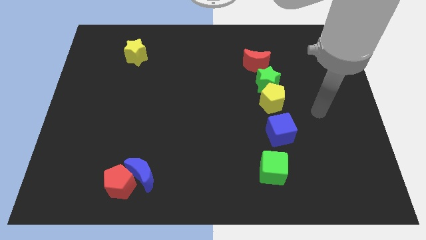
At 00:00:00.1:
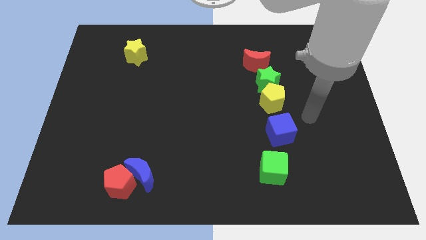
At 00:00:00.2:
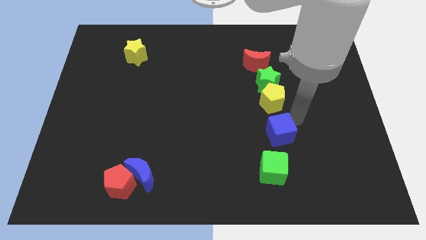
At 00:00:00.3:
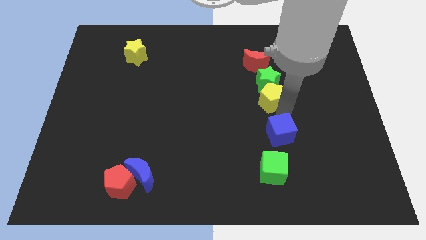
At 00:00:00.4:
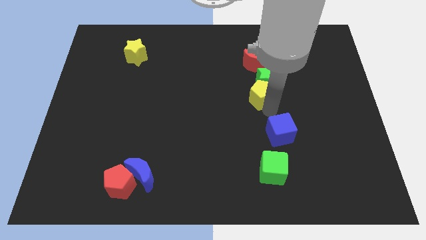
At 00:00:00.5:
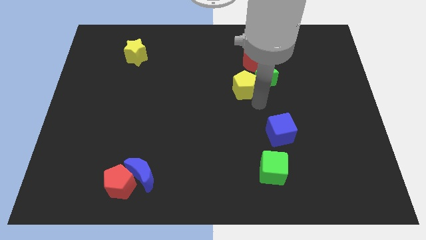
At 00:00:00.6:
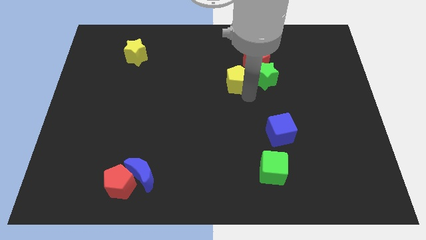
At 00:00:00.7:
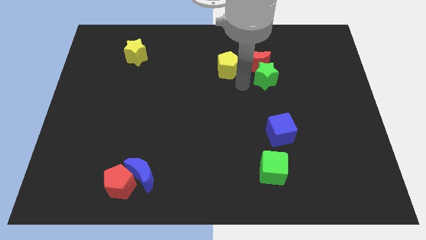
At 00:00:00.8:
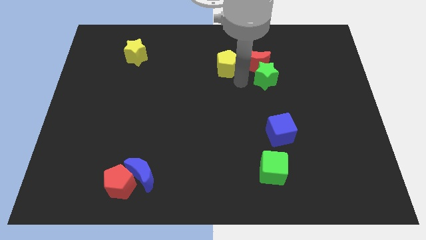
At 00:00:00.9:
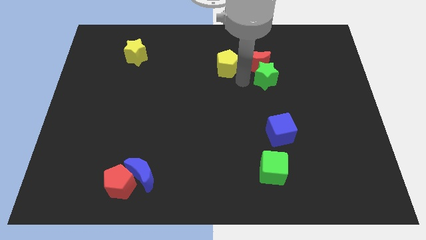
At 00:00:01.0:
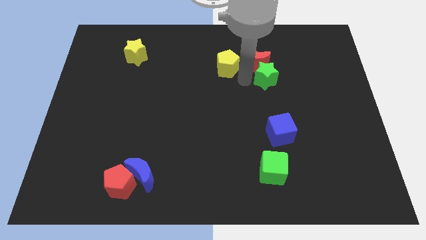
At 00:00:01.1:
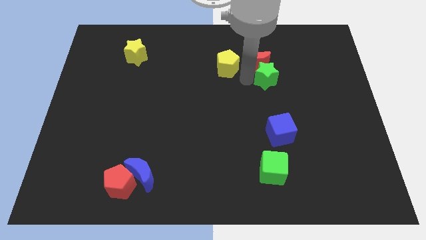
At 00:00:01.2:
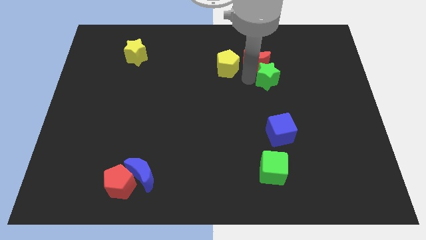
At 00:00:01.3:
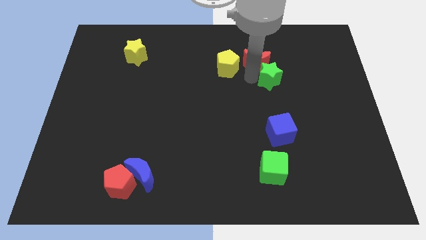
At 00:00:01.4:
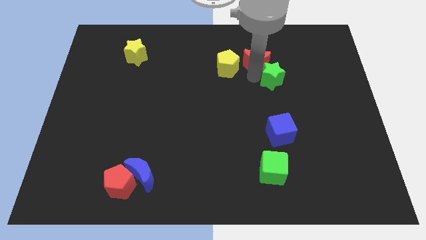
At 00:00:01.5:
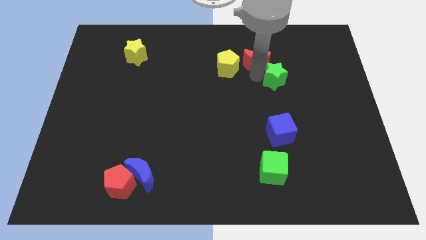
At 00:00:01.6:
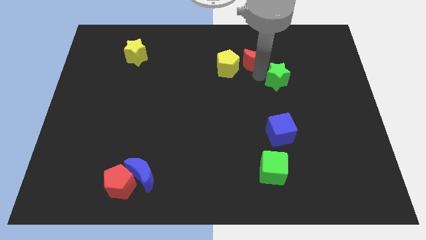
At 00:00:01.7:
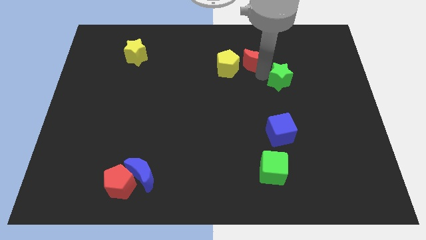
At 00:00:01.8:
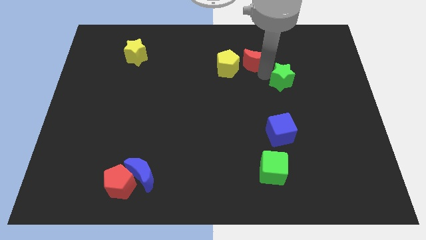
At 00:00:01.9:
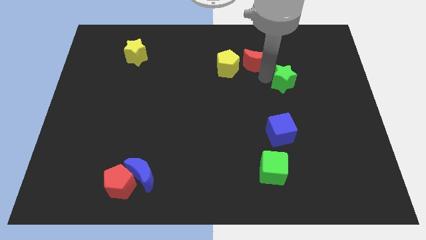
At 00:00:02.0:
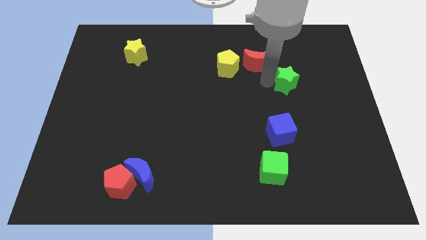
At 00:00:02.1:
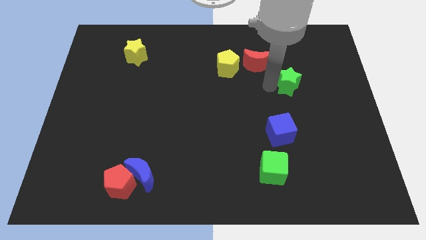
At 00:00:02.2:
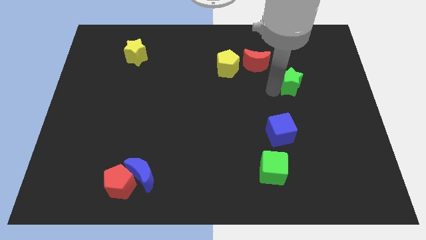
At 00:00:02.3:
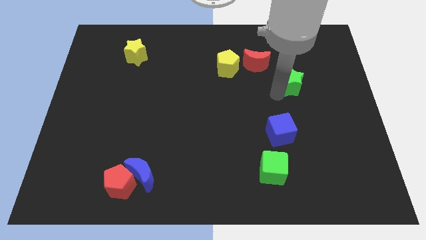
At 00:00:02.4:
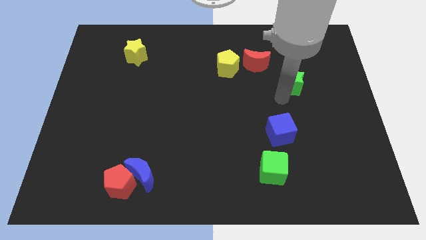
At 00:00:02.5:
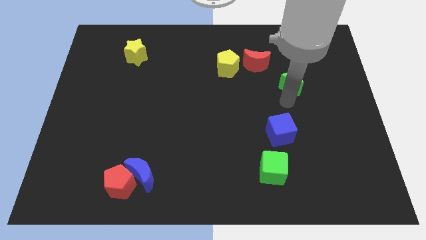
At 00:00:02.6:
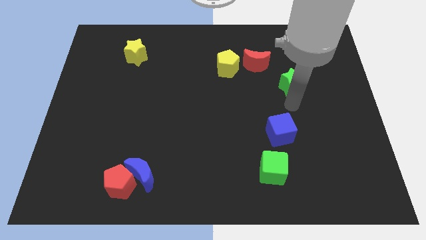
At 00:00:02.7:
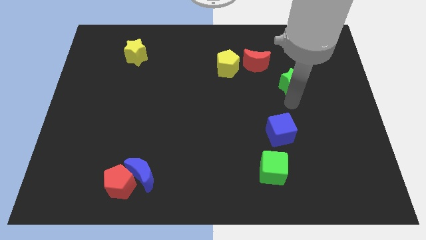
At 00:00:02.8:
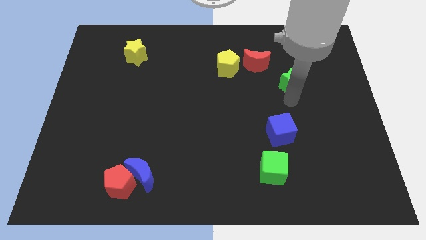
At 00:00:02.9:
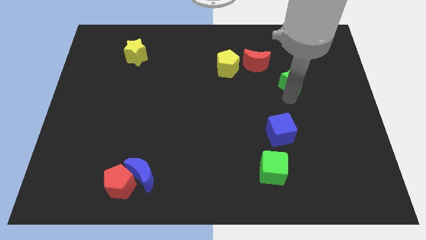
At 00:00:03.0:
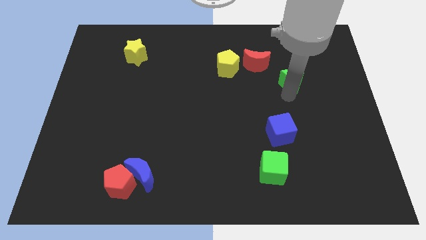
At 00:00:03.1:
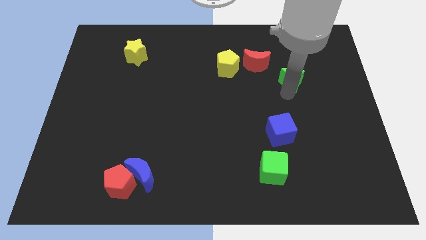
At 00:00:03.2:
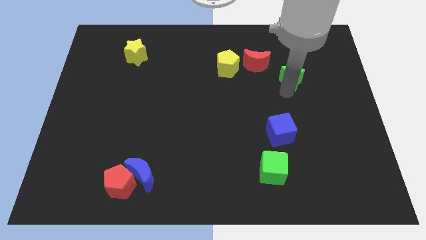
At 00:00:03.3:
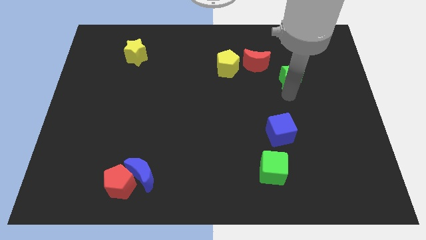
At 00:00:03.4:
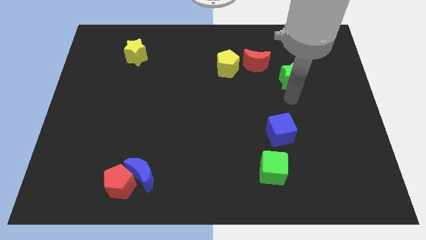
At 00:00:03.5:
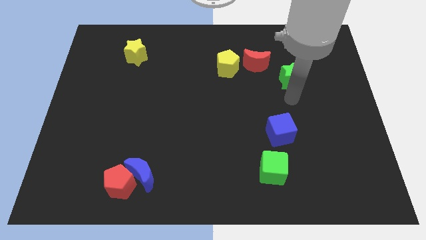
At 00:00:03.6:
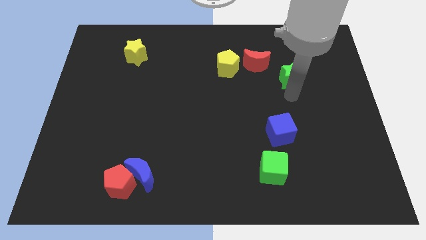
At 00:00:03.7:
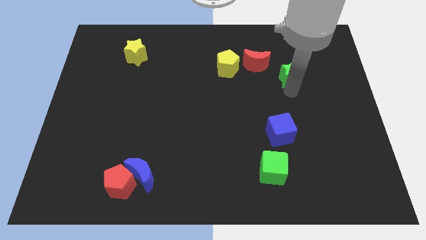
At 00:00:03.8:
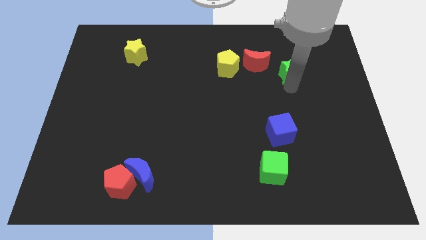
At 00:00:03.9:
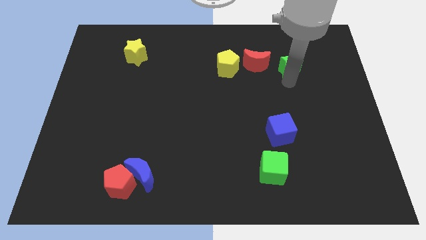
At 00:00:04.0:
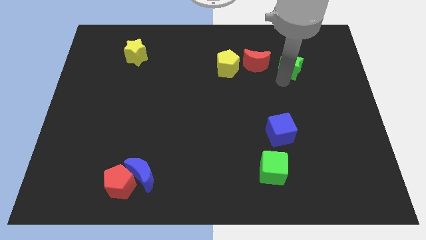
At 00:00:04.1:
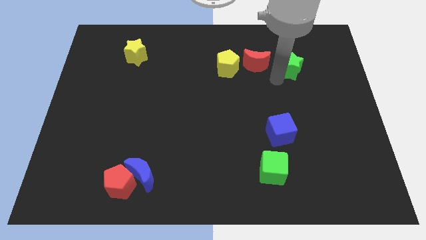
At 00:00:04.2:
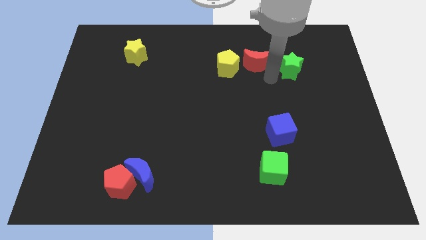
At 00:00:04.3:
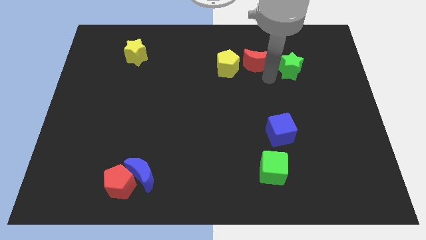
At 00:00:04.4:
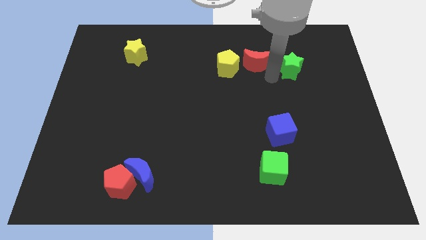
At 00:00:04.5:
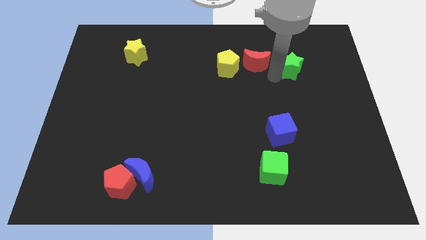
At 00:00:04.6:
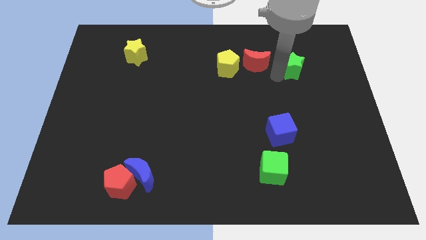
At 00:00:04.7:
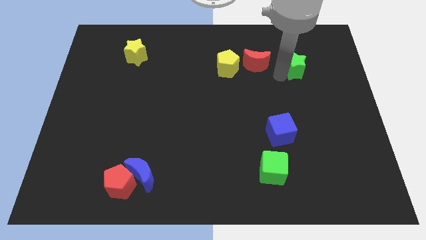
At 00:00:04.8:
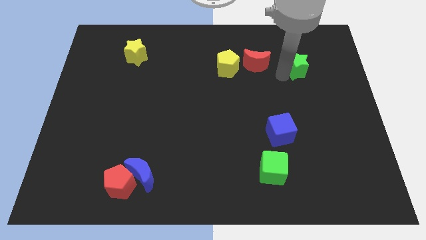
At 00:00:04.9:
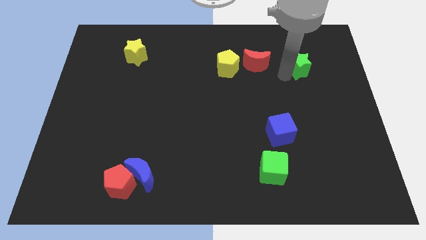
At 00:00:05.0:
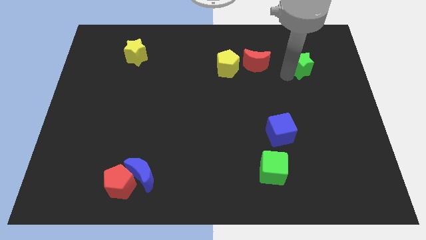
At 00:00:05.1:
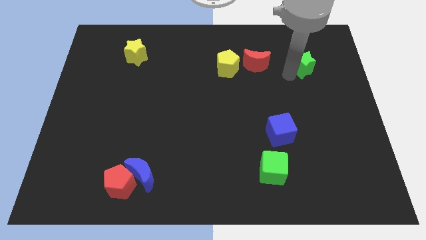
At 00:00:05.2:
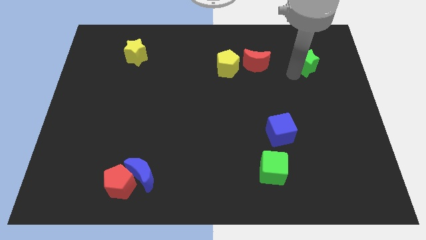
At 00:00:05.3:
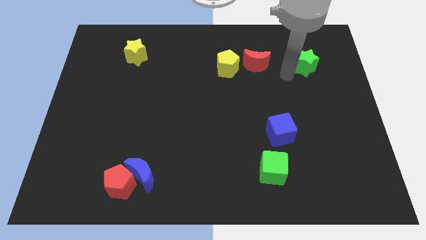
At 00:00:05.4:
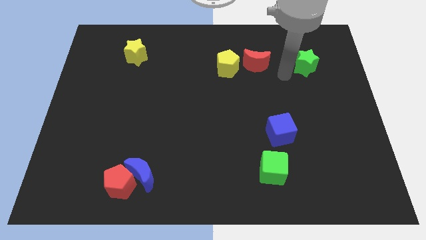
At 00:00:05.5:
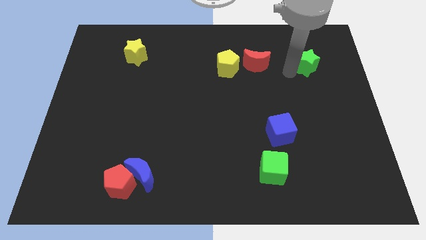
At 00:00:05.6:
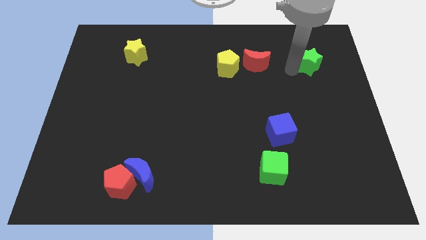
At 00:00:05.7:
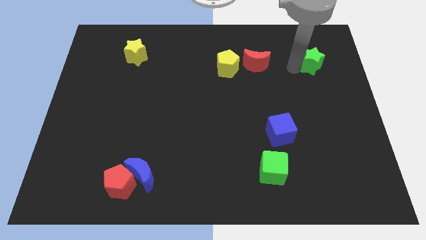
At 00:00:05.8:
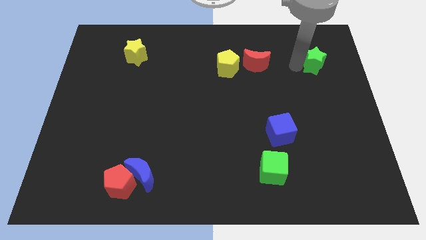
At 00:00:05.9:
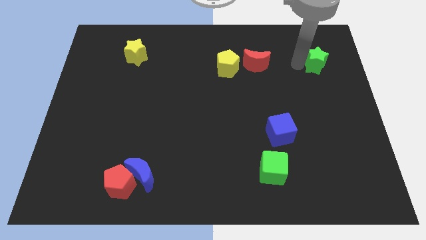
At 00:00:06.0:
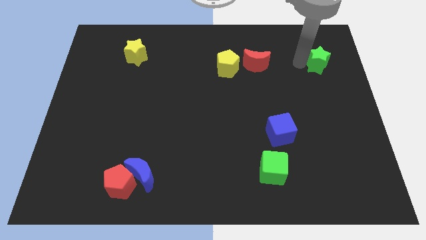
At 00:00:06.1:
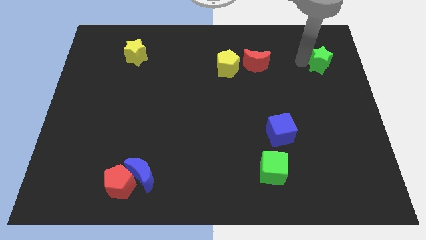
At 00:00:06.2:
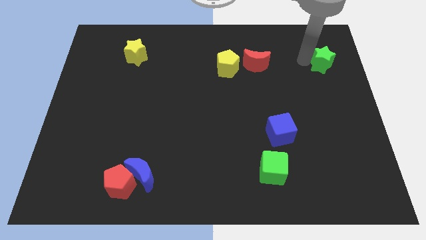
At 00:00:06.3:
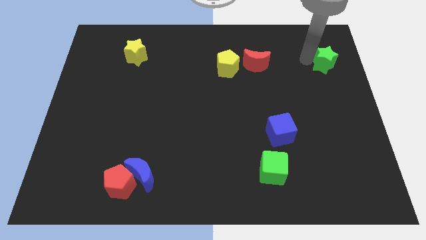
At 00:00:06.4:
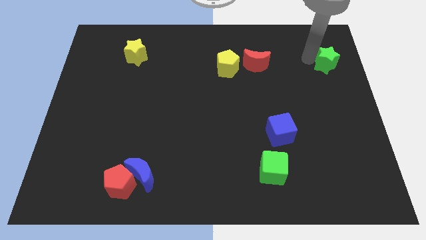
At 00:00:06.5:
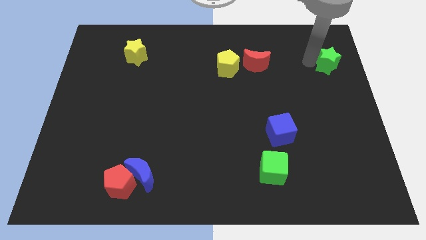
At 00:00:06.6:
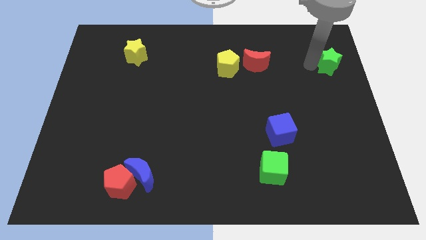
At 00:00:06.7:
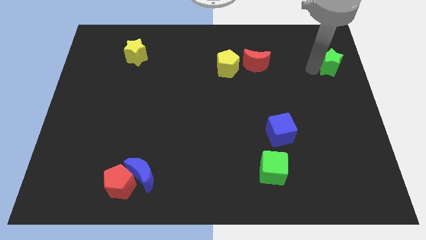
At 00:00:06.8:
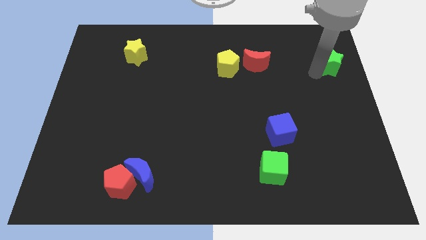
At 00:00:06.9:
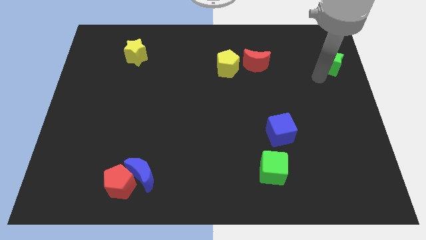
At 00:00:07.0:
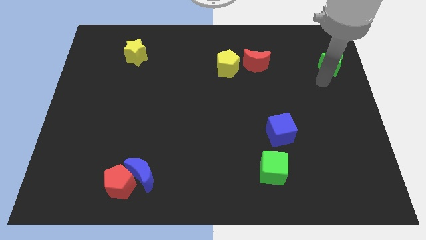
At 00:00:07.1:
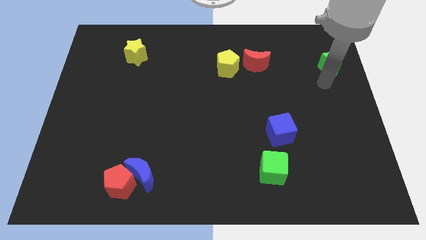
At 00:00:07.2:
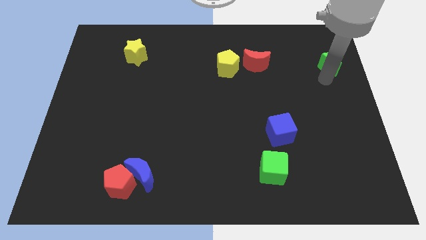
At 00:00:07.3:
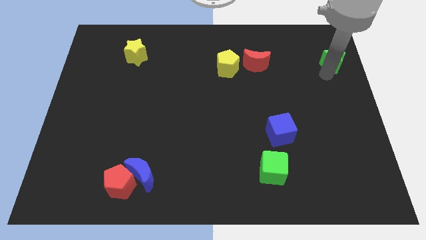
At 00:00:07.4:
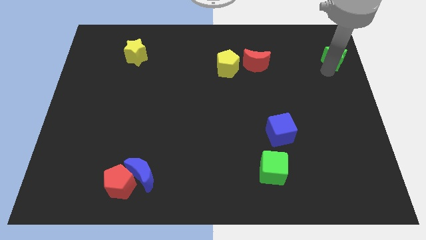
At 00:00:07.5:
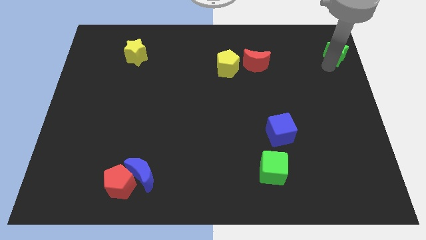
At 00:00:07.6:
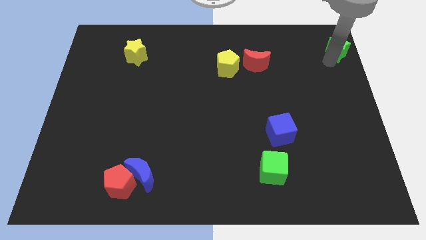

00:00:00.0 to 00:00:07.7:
move the green star to the top right
